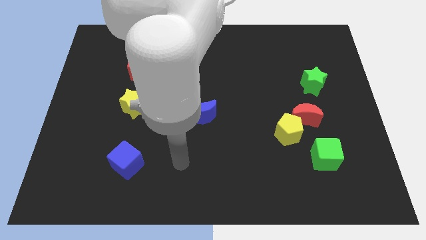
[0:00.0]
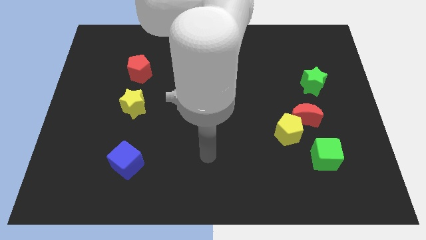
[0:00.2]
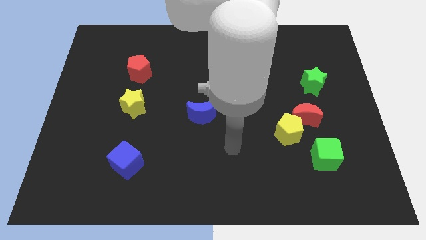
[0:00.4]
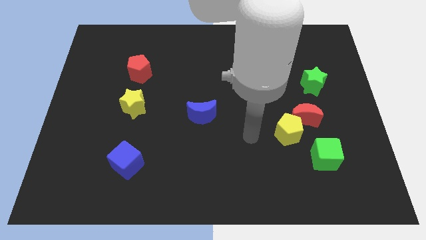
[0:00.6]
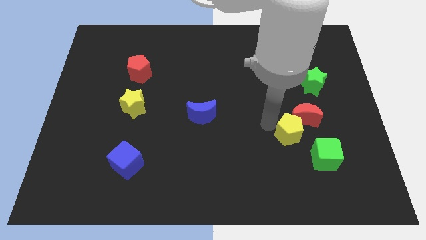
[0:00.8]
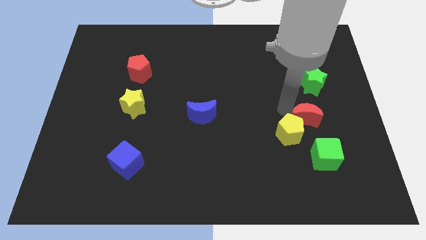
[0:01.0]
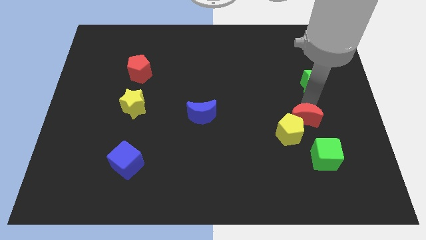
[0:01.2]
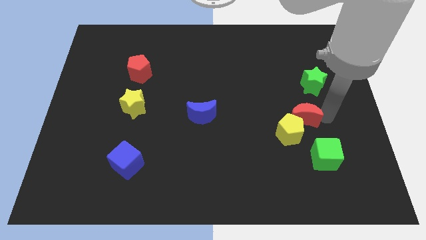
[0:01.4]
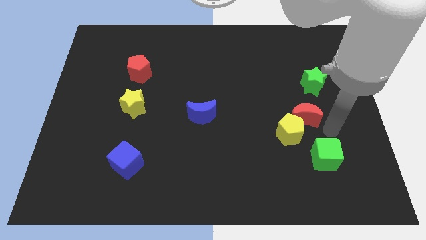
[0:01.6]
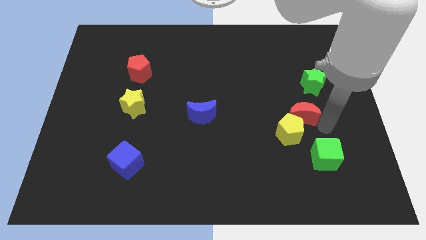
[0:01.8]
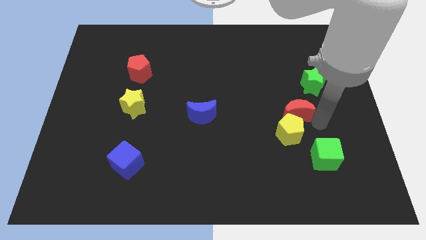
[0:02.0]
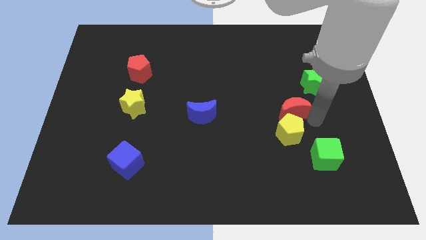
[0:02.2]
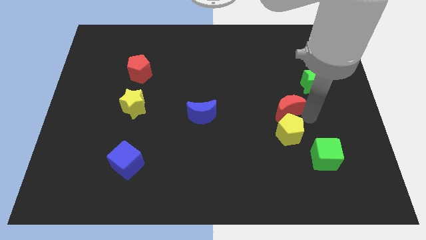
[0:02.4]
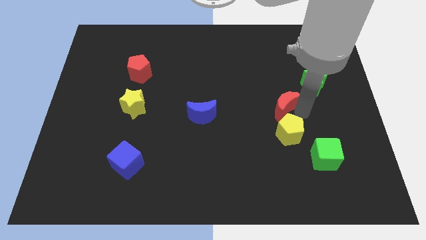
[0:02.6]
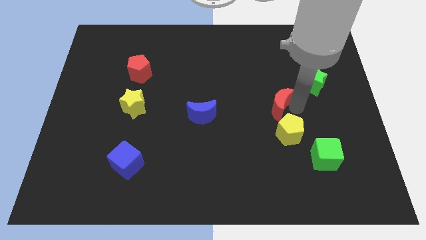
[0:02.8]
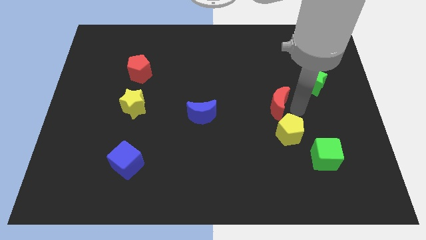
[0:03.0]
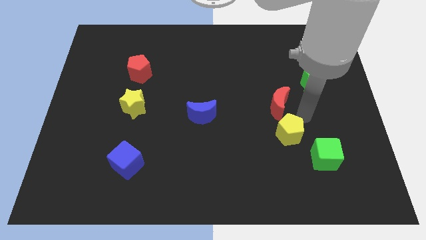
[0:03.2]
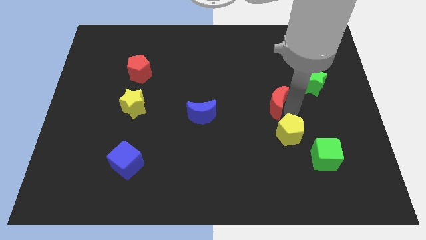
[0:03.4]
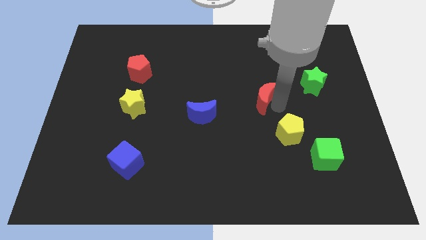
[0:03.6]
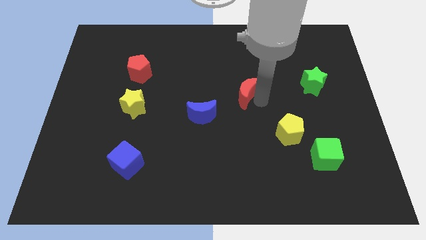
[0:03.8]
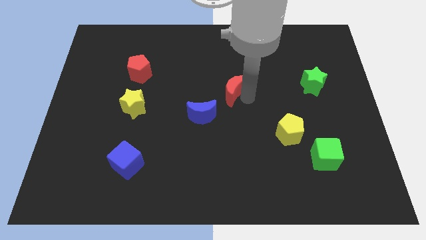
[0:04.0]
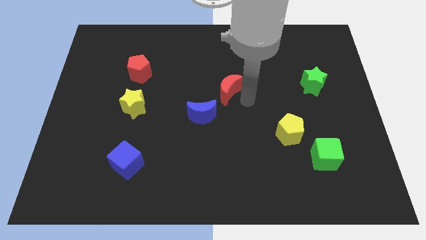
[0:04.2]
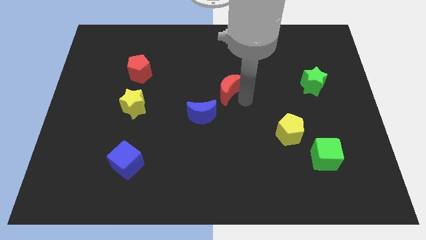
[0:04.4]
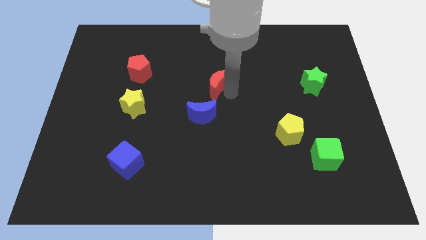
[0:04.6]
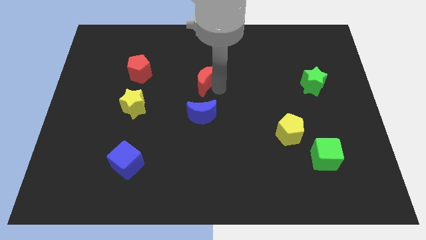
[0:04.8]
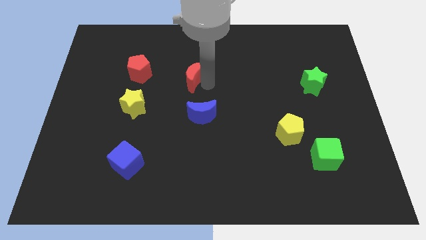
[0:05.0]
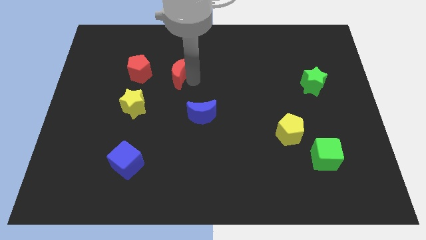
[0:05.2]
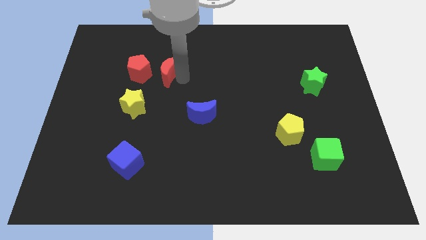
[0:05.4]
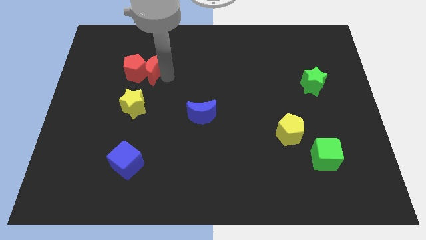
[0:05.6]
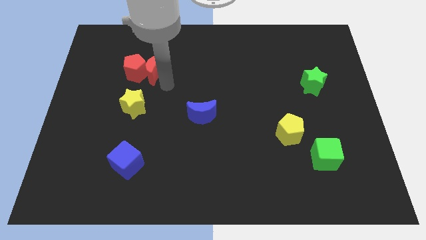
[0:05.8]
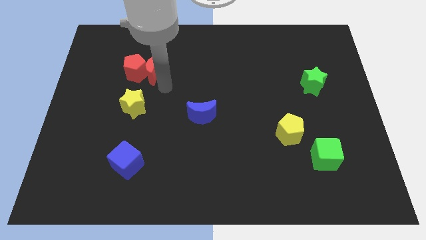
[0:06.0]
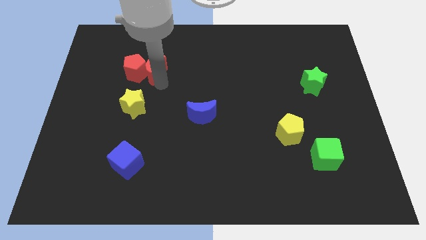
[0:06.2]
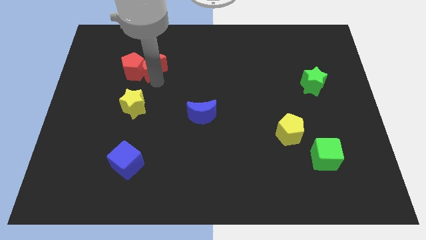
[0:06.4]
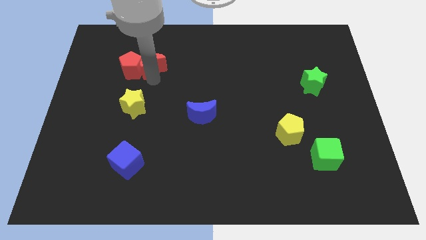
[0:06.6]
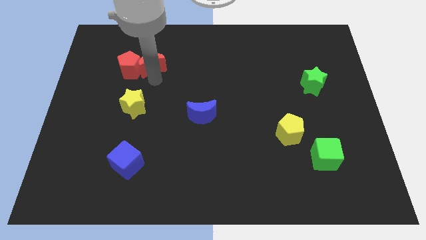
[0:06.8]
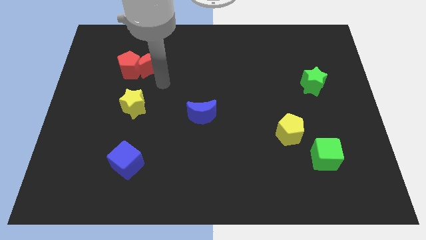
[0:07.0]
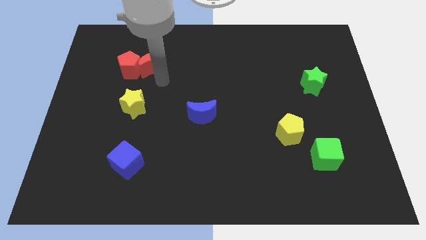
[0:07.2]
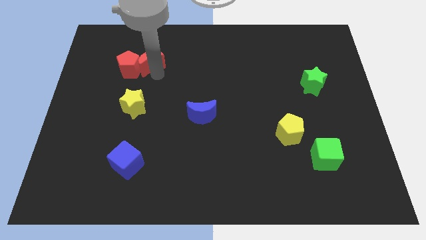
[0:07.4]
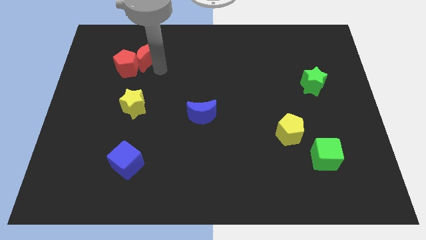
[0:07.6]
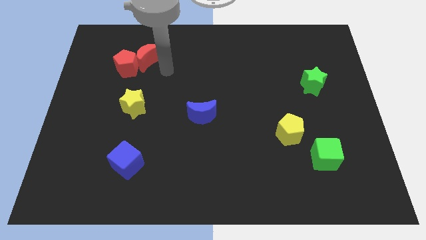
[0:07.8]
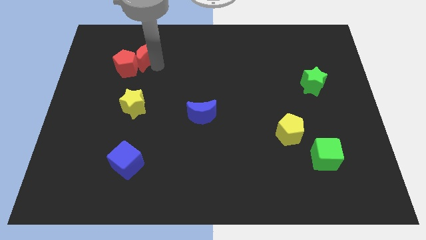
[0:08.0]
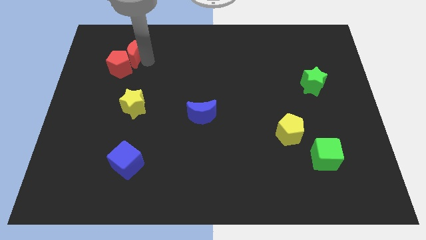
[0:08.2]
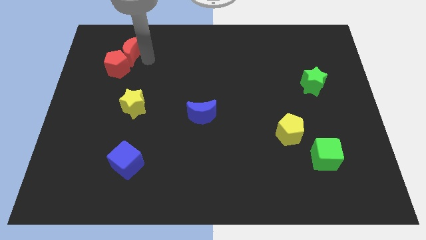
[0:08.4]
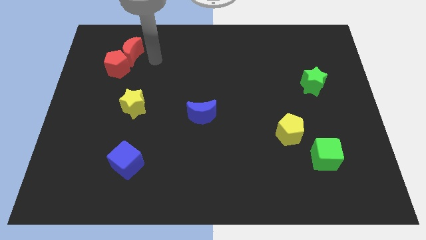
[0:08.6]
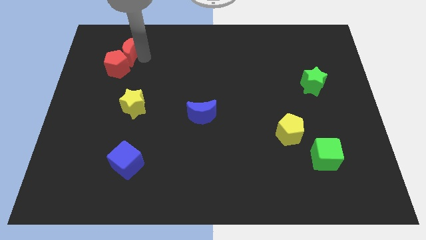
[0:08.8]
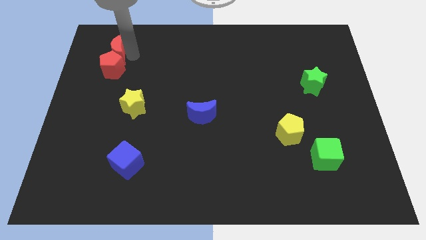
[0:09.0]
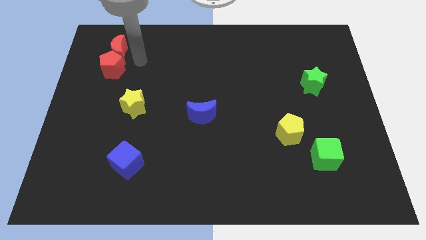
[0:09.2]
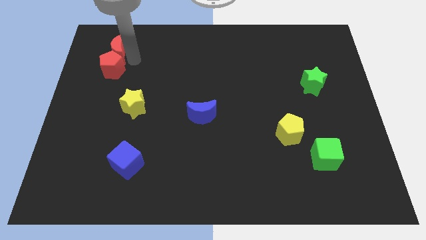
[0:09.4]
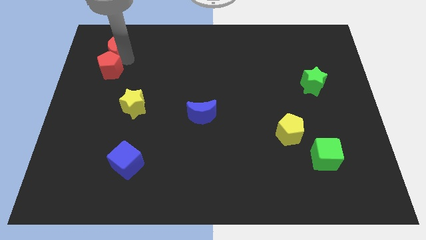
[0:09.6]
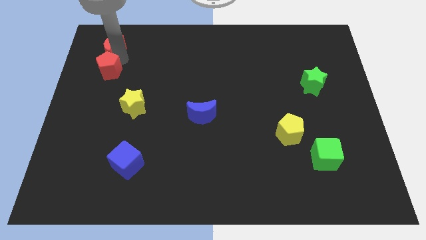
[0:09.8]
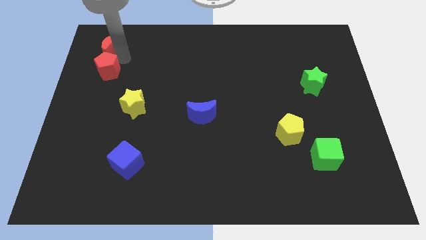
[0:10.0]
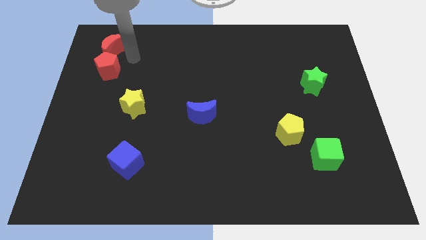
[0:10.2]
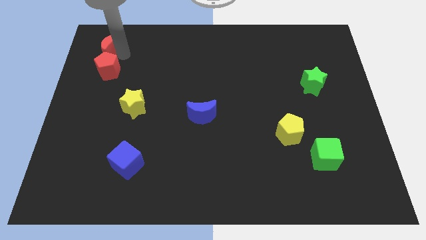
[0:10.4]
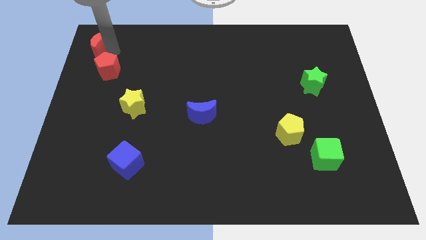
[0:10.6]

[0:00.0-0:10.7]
put the red moon to the upper left corner

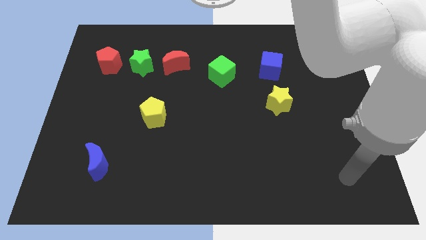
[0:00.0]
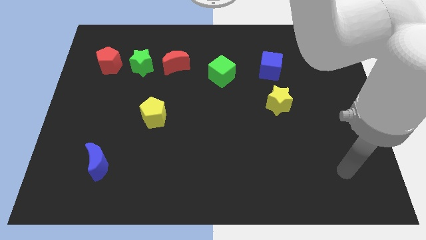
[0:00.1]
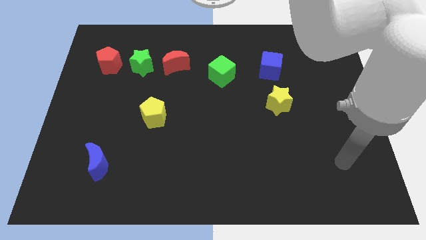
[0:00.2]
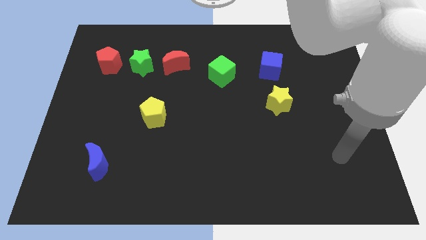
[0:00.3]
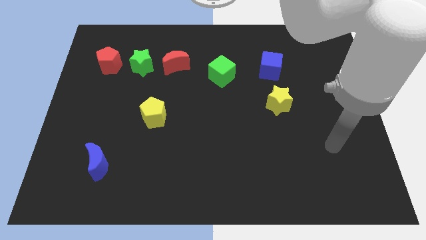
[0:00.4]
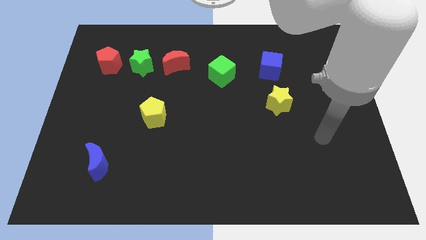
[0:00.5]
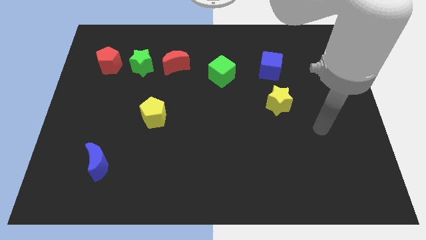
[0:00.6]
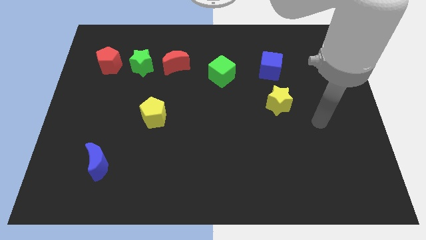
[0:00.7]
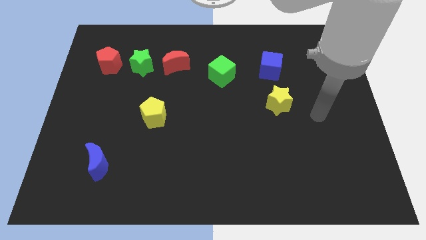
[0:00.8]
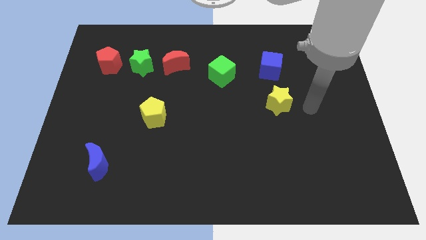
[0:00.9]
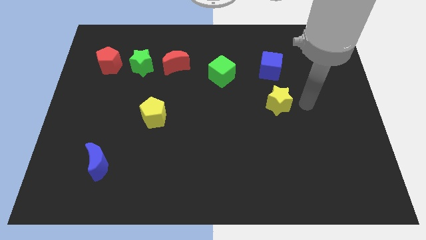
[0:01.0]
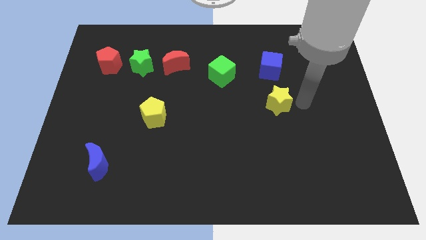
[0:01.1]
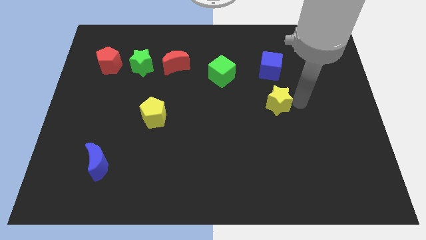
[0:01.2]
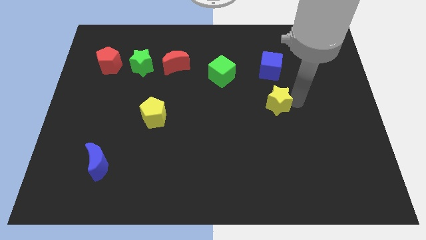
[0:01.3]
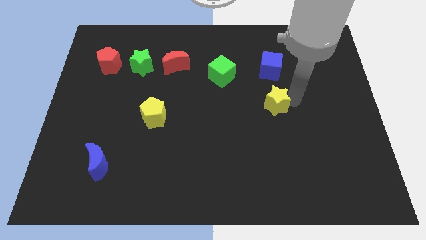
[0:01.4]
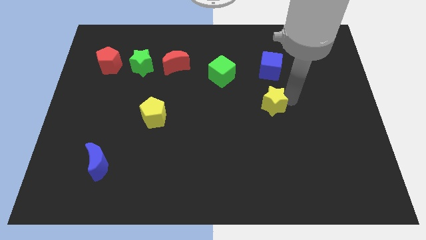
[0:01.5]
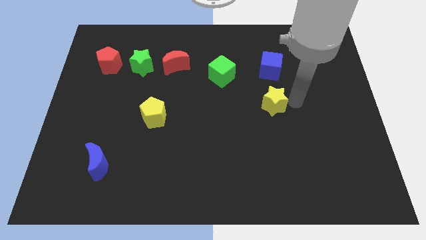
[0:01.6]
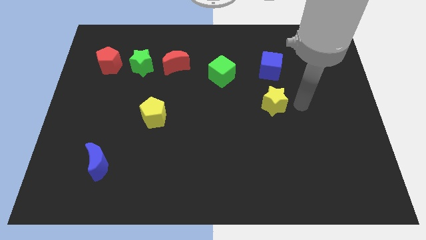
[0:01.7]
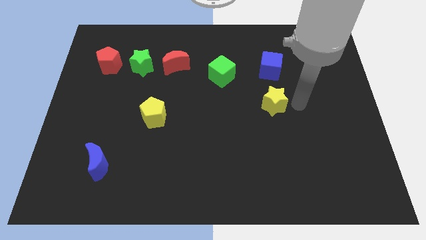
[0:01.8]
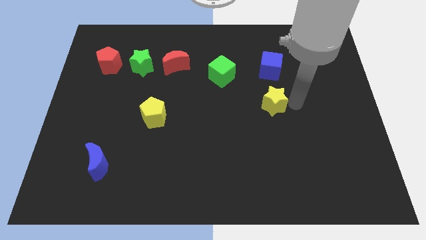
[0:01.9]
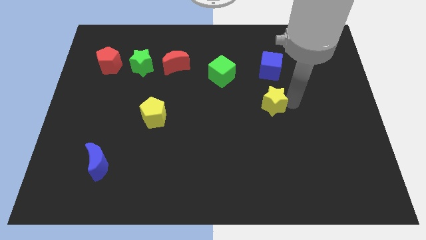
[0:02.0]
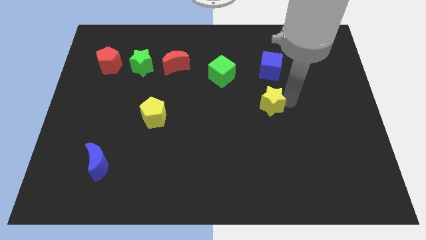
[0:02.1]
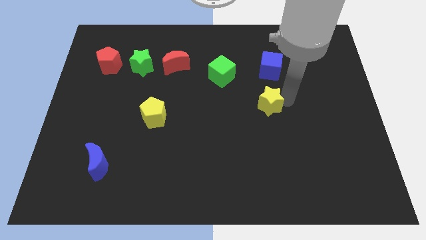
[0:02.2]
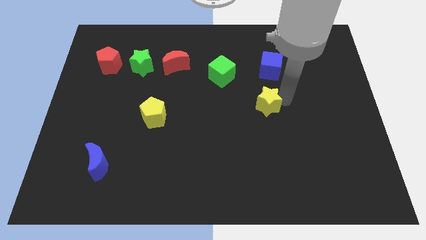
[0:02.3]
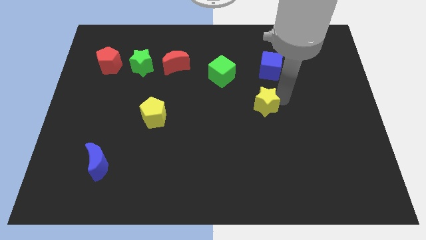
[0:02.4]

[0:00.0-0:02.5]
push the yellow star to the middle of the board
